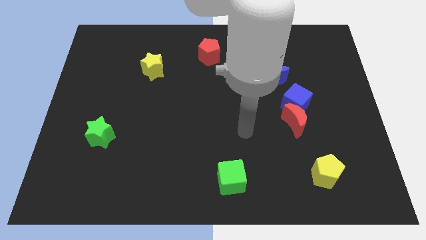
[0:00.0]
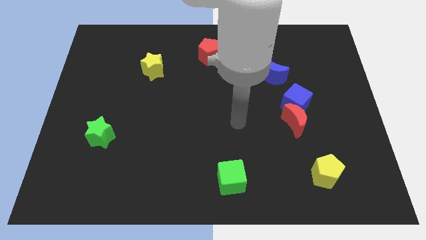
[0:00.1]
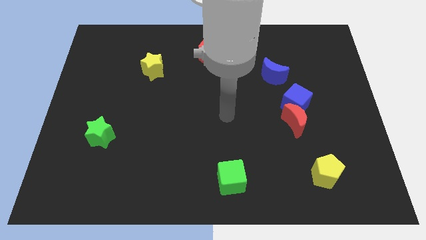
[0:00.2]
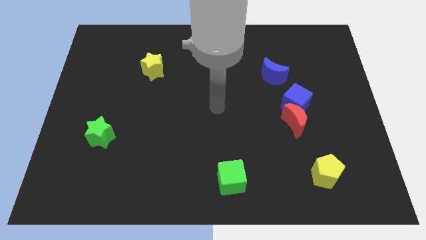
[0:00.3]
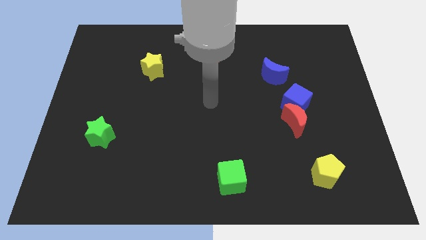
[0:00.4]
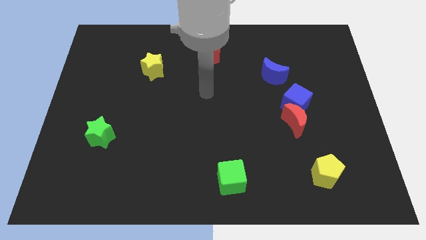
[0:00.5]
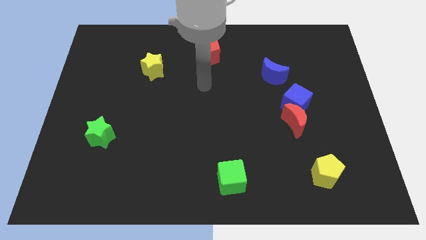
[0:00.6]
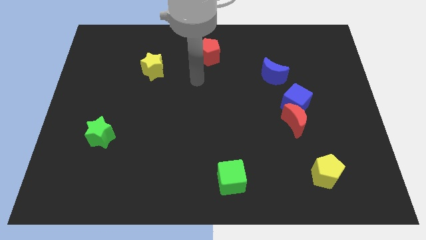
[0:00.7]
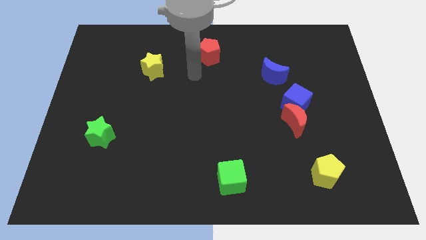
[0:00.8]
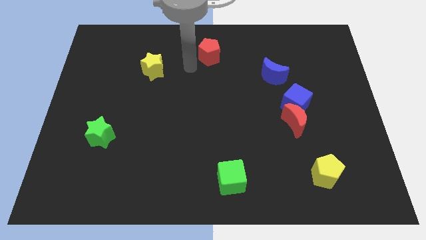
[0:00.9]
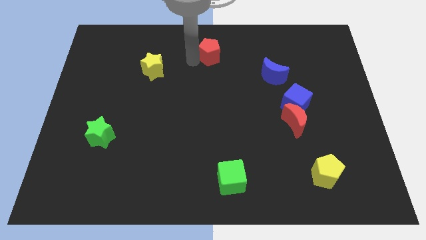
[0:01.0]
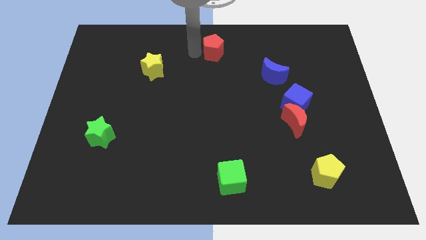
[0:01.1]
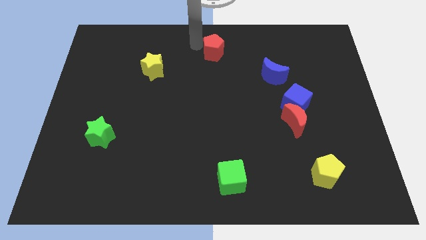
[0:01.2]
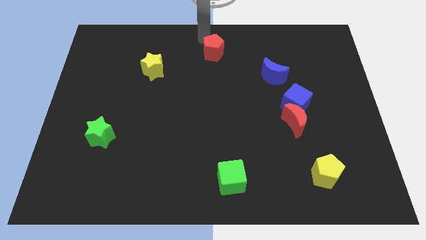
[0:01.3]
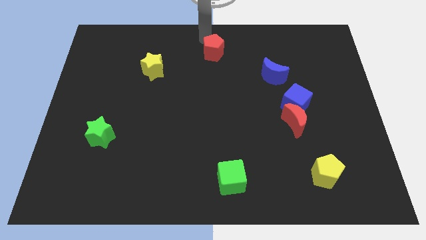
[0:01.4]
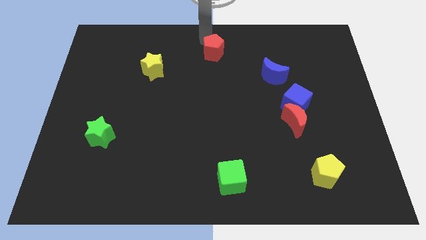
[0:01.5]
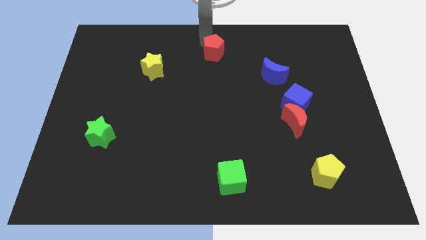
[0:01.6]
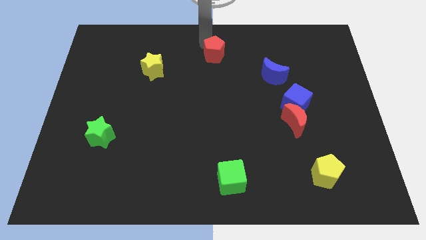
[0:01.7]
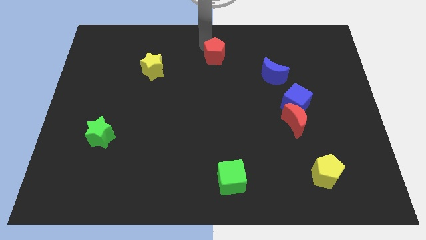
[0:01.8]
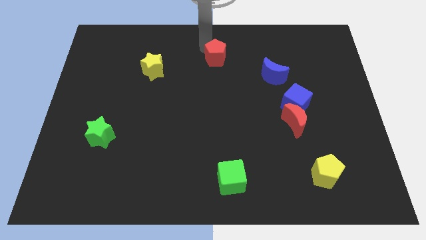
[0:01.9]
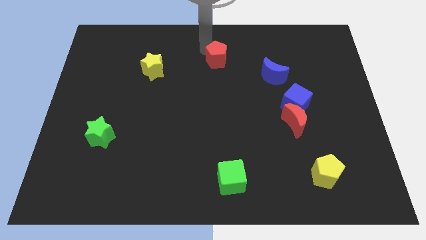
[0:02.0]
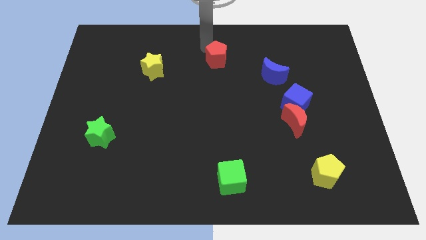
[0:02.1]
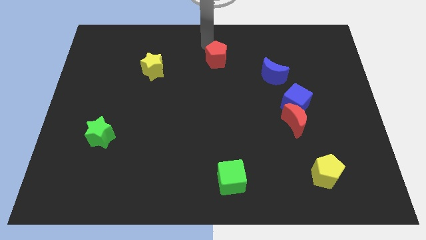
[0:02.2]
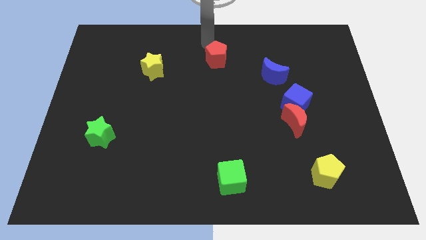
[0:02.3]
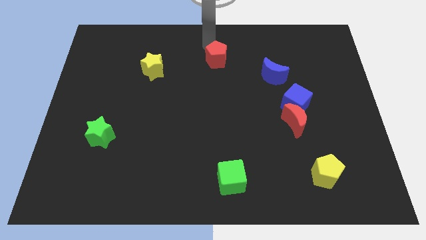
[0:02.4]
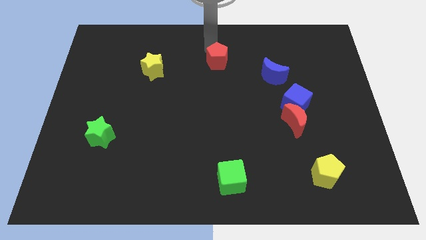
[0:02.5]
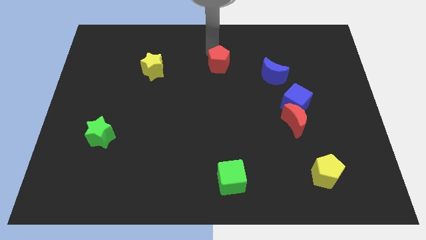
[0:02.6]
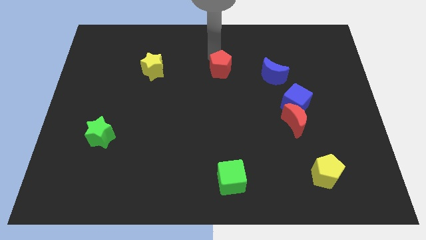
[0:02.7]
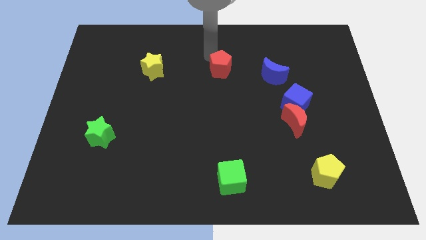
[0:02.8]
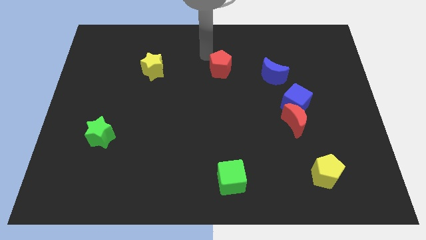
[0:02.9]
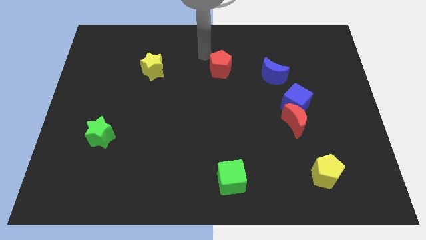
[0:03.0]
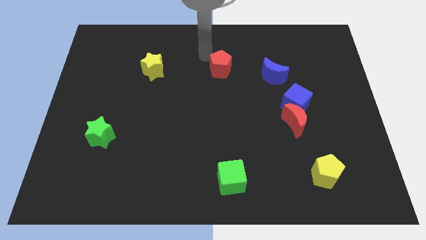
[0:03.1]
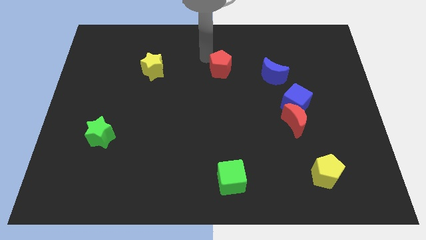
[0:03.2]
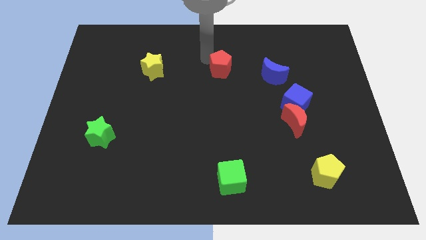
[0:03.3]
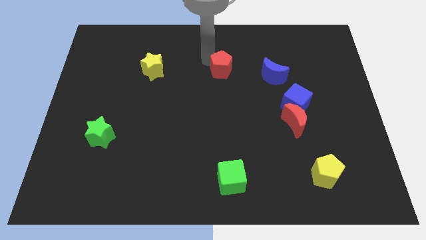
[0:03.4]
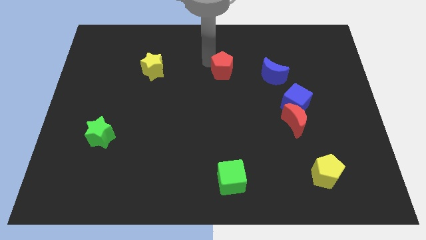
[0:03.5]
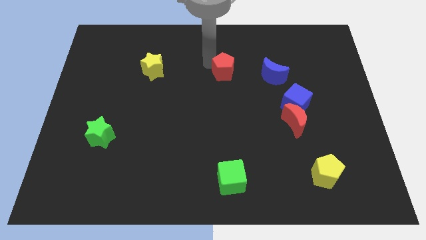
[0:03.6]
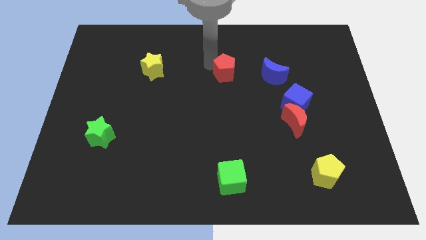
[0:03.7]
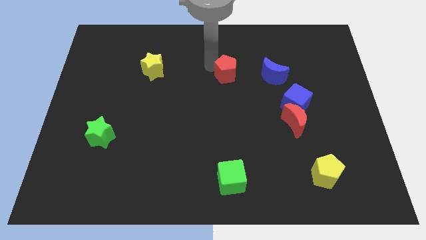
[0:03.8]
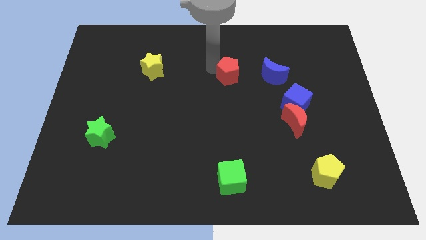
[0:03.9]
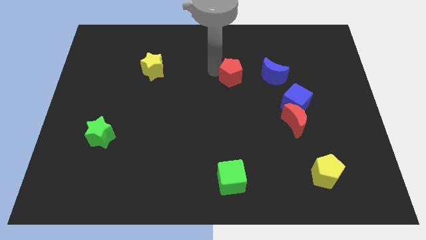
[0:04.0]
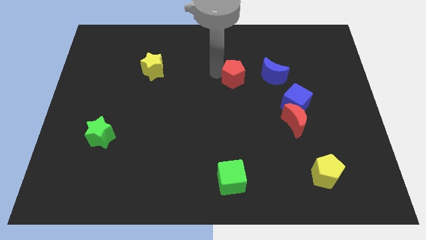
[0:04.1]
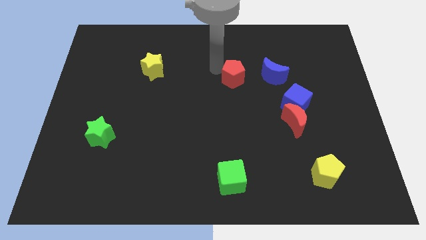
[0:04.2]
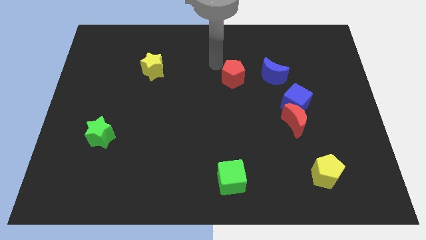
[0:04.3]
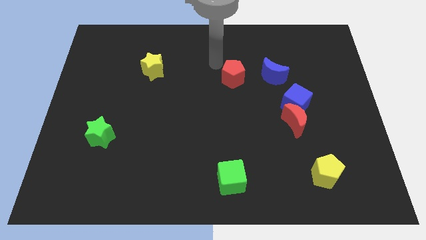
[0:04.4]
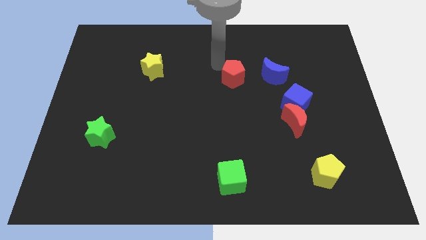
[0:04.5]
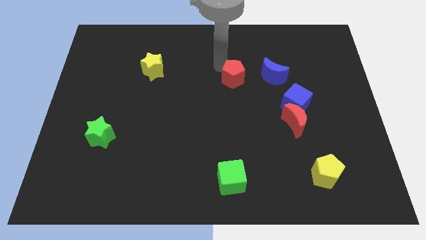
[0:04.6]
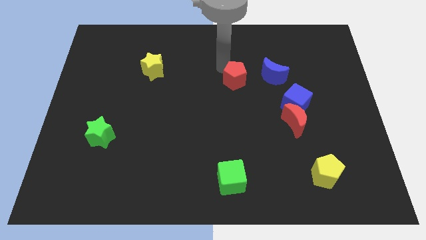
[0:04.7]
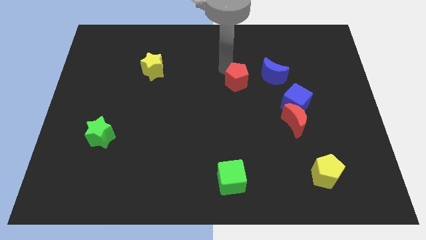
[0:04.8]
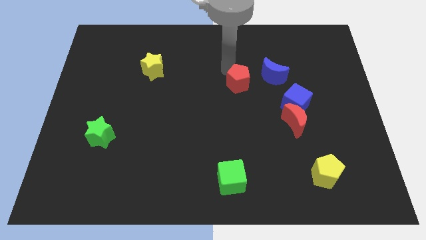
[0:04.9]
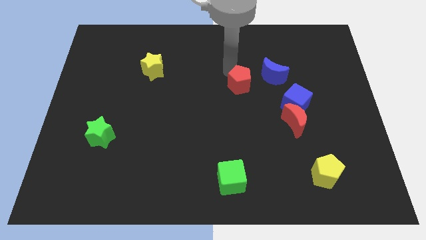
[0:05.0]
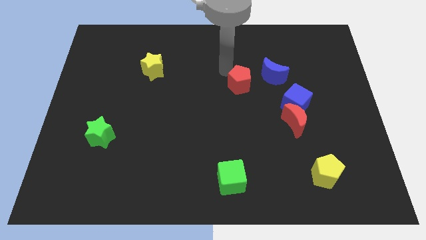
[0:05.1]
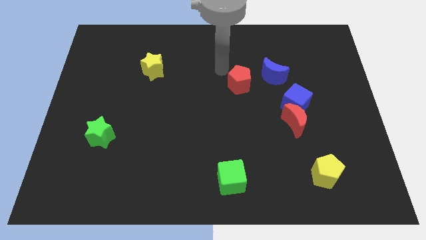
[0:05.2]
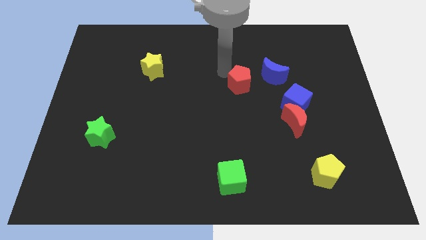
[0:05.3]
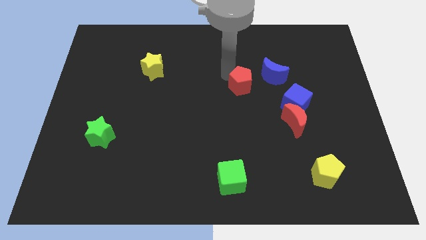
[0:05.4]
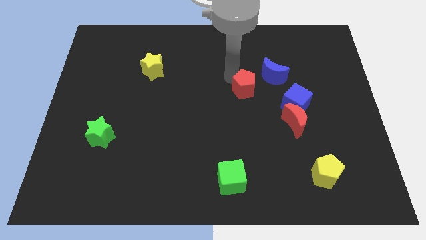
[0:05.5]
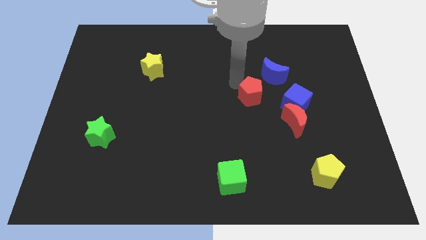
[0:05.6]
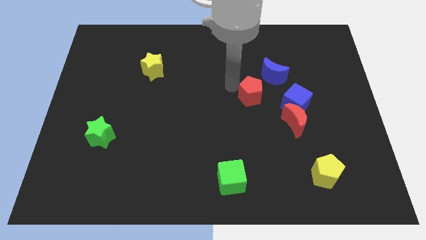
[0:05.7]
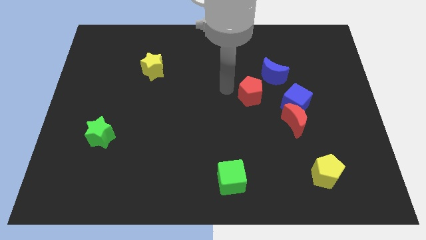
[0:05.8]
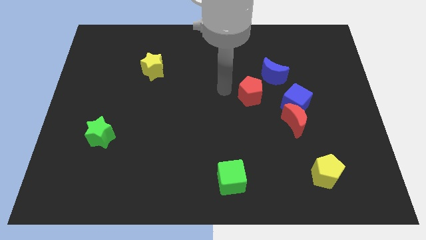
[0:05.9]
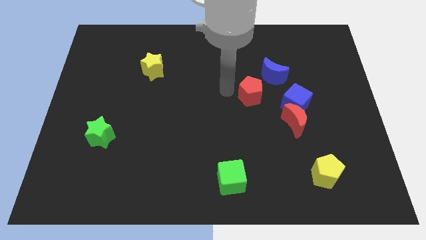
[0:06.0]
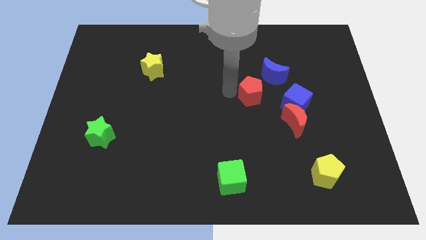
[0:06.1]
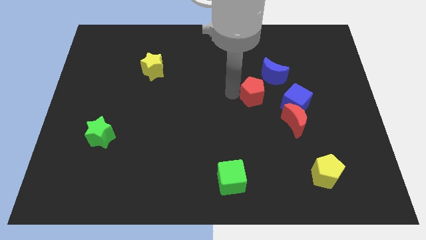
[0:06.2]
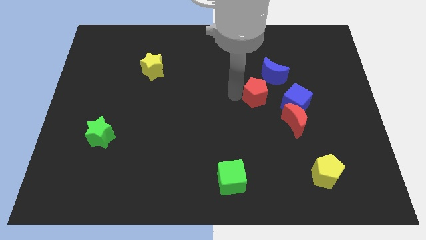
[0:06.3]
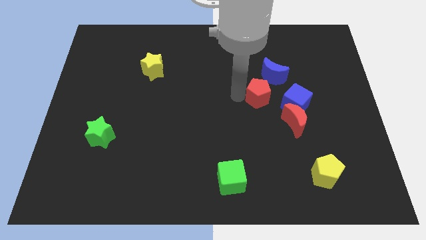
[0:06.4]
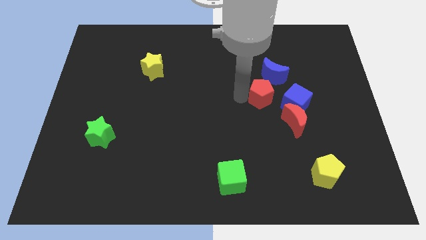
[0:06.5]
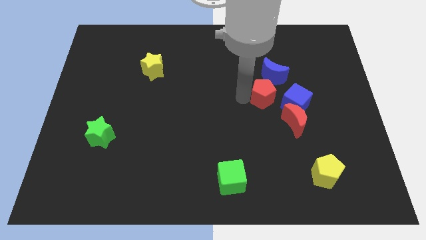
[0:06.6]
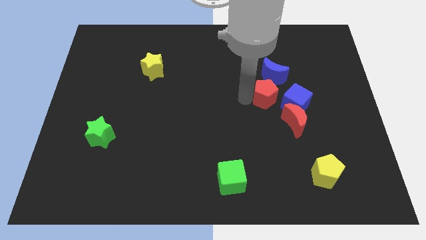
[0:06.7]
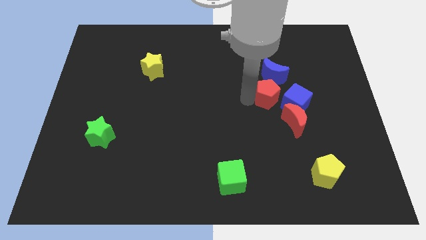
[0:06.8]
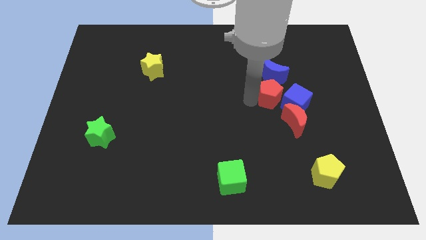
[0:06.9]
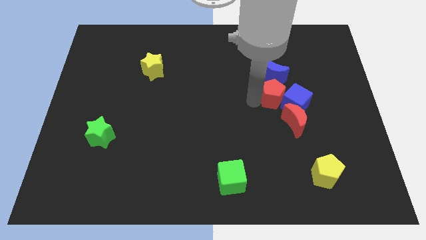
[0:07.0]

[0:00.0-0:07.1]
push the red pentagon close to the blue cube
